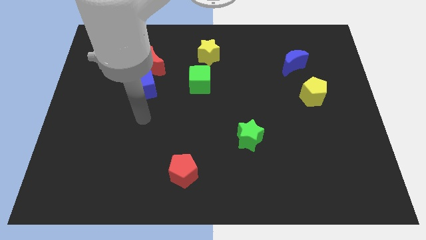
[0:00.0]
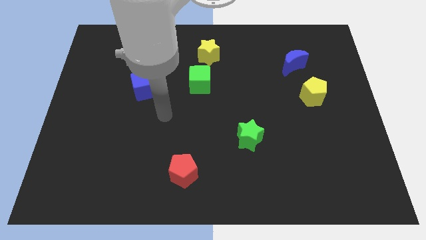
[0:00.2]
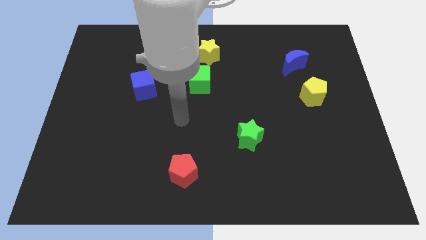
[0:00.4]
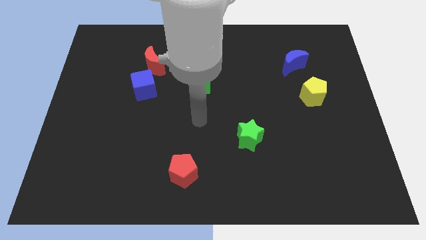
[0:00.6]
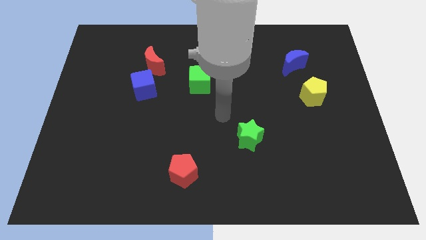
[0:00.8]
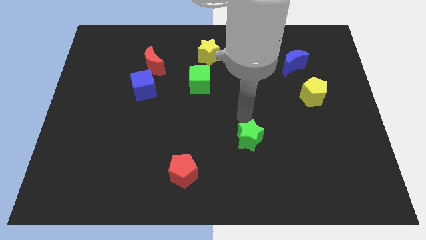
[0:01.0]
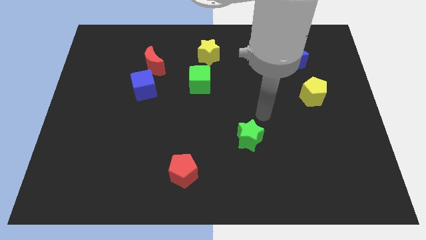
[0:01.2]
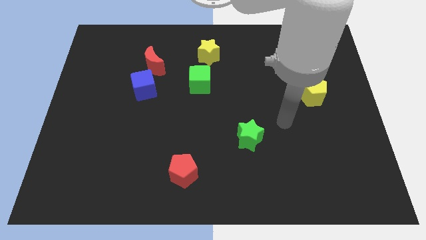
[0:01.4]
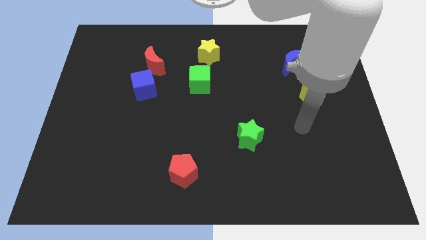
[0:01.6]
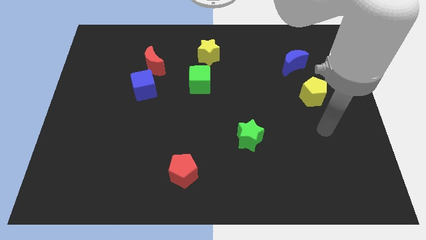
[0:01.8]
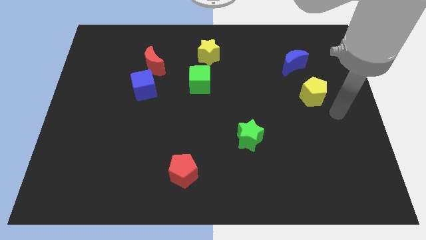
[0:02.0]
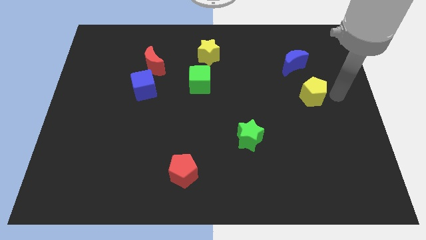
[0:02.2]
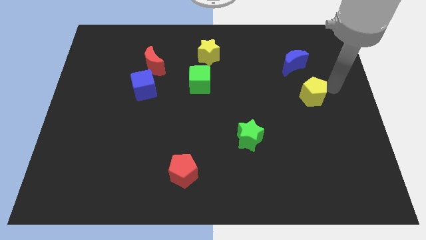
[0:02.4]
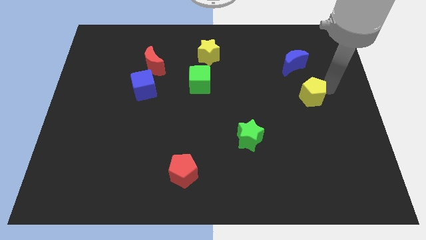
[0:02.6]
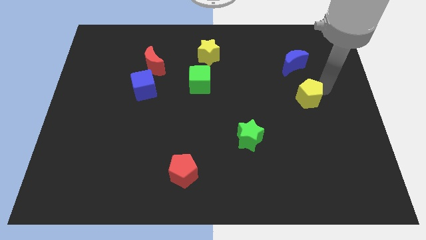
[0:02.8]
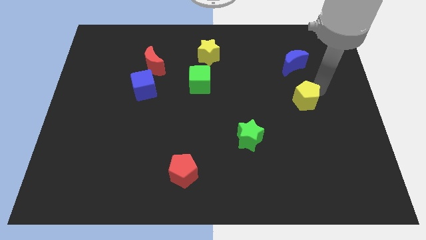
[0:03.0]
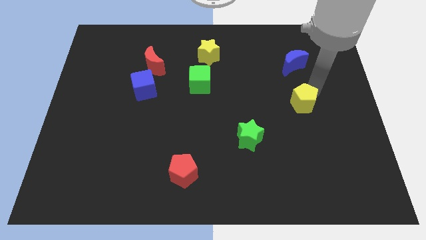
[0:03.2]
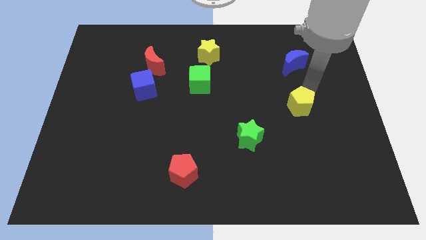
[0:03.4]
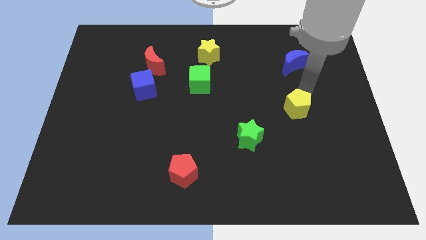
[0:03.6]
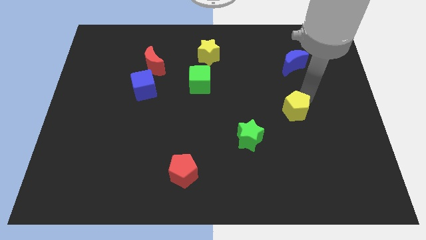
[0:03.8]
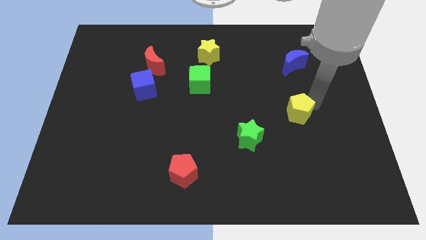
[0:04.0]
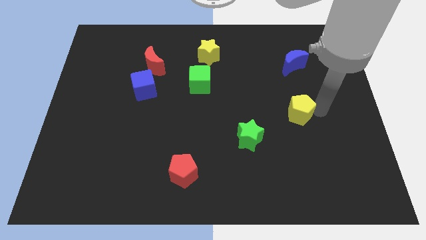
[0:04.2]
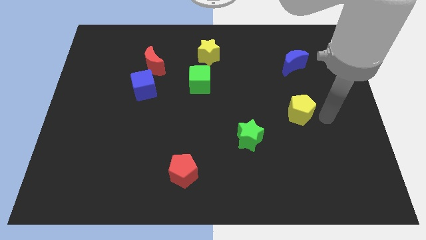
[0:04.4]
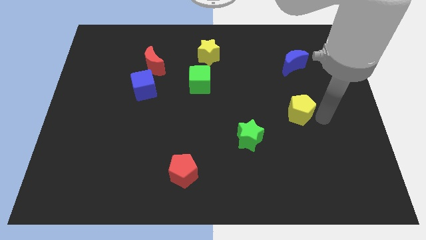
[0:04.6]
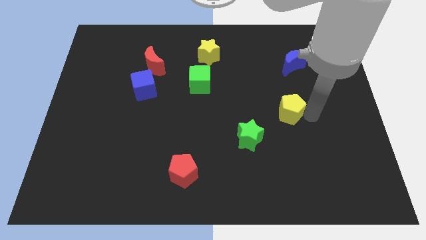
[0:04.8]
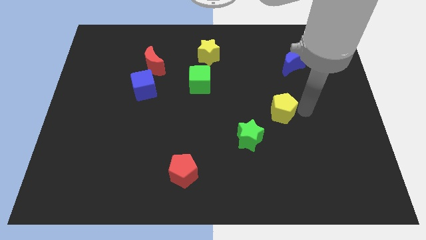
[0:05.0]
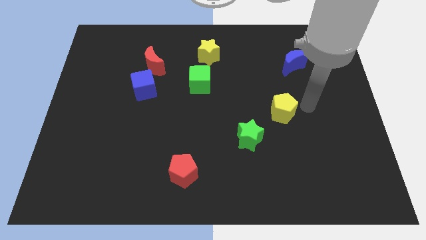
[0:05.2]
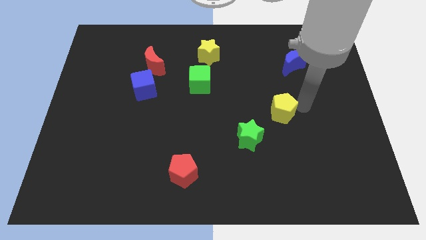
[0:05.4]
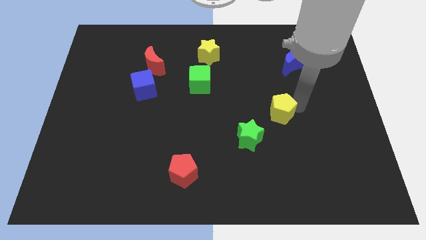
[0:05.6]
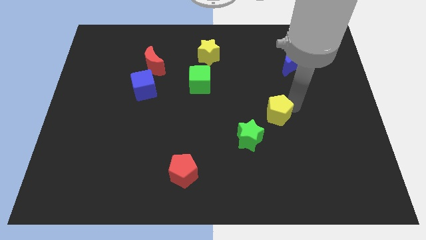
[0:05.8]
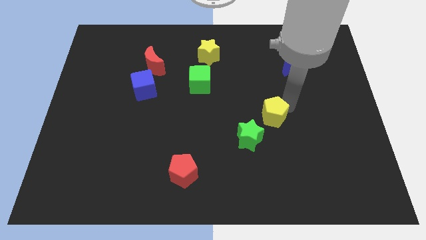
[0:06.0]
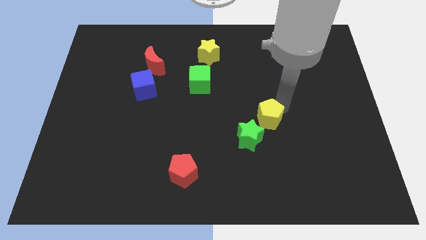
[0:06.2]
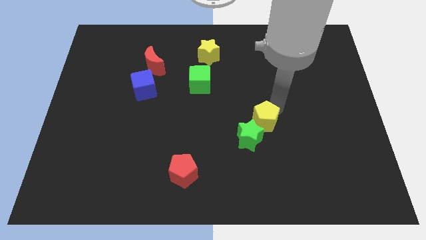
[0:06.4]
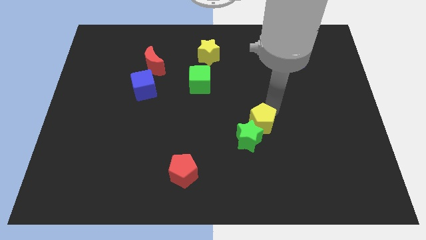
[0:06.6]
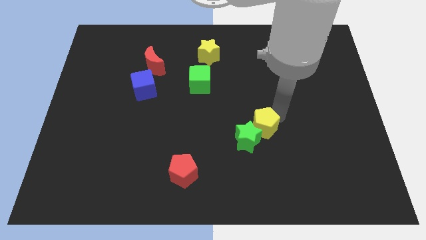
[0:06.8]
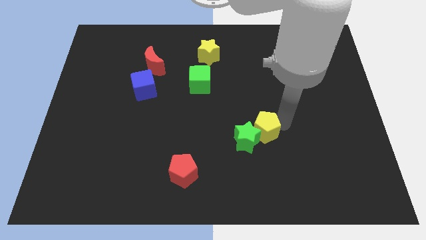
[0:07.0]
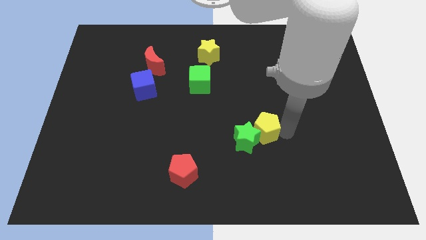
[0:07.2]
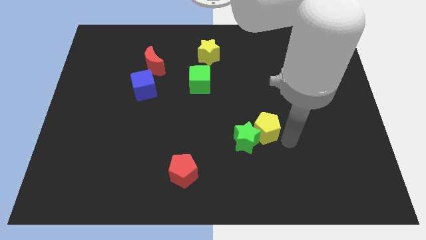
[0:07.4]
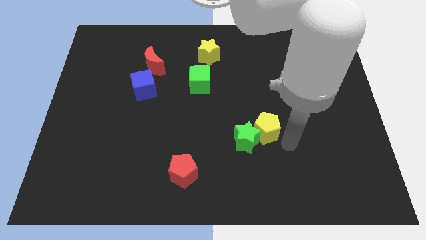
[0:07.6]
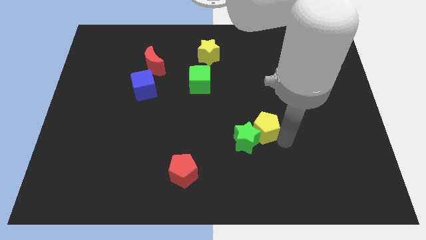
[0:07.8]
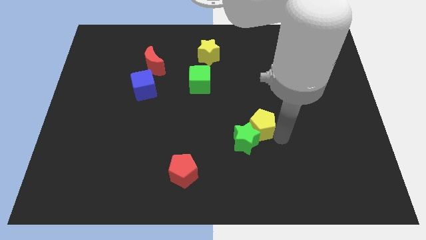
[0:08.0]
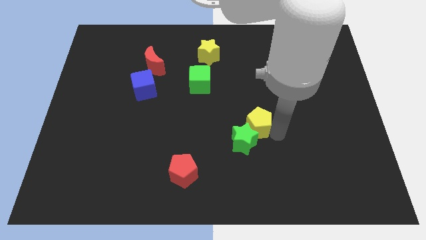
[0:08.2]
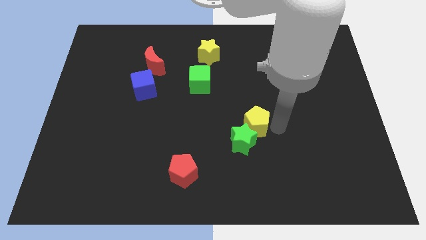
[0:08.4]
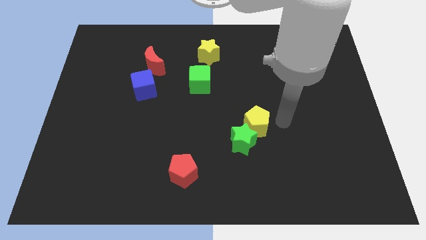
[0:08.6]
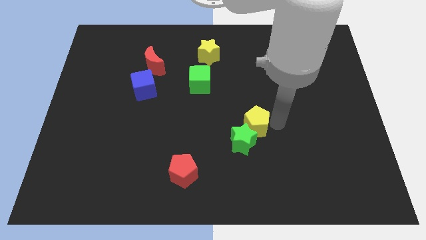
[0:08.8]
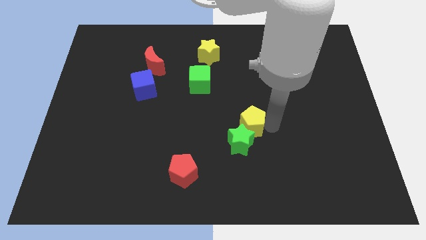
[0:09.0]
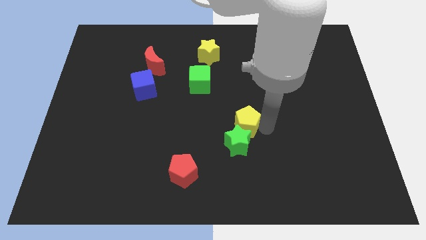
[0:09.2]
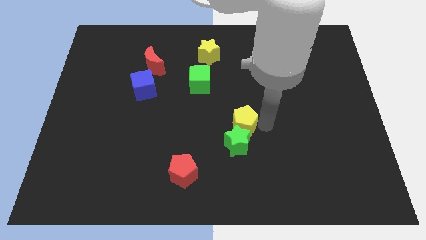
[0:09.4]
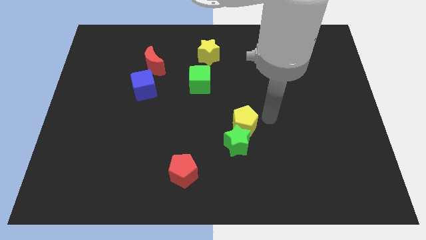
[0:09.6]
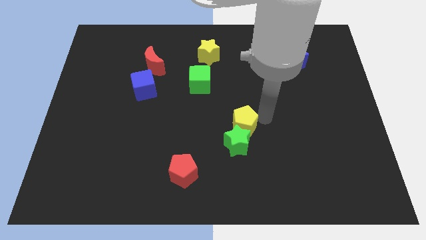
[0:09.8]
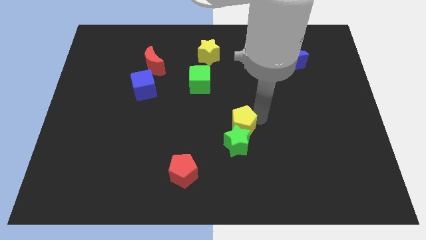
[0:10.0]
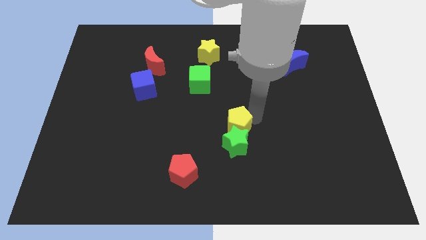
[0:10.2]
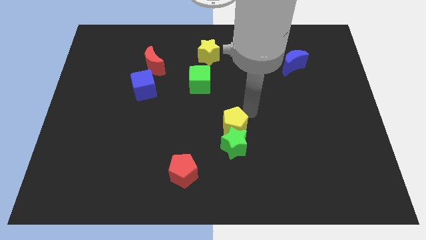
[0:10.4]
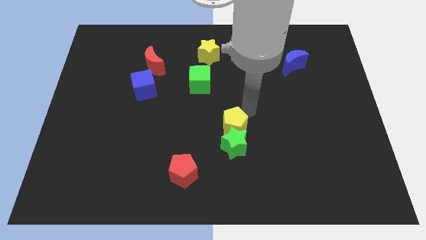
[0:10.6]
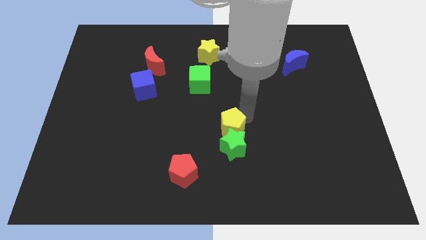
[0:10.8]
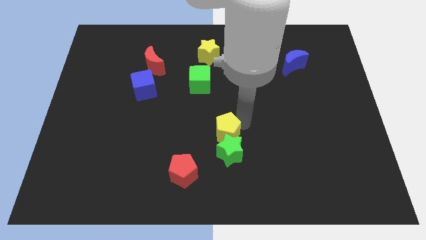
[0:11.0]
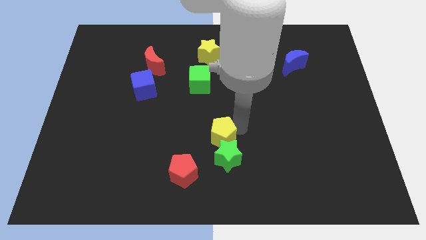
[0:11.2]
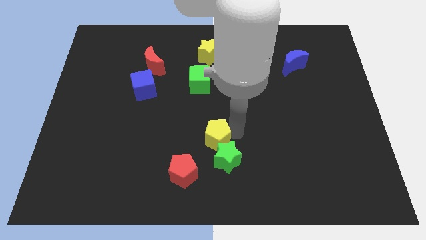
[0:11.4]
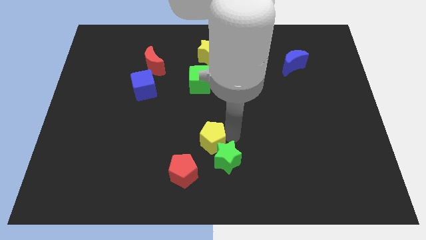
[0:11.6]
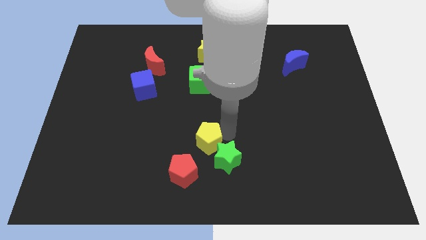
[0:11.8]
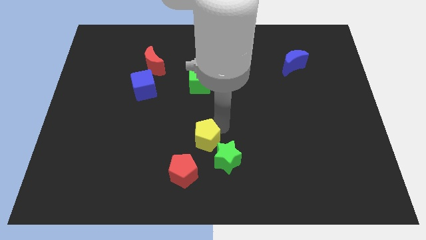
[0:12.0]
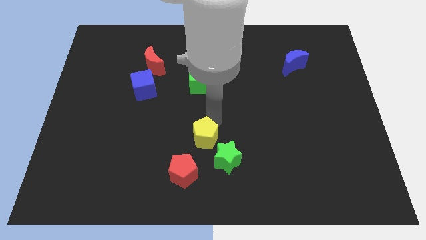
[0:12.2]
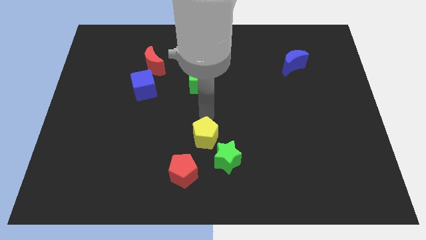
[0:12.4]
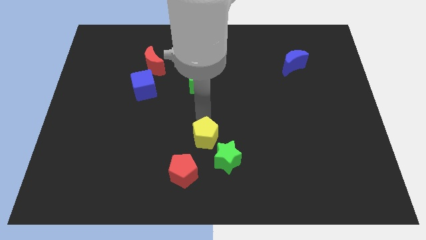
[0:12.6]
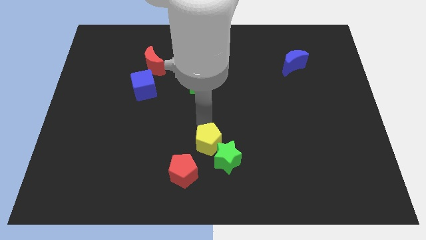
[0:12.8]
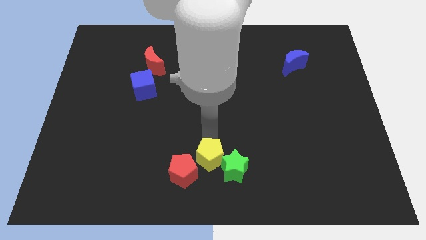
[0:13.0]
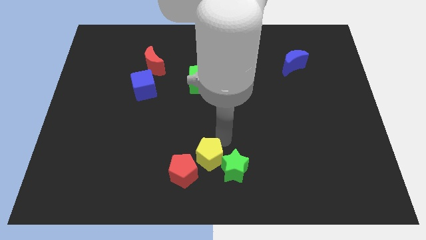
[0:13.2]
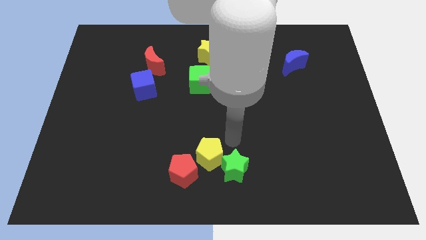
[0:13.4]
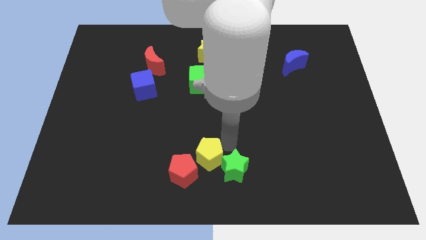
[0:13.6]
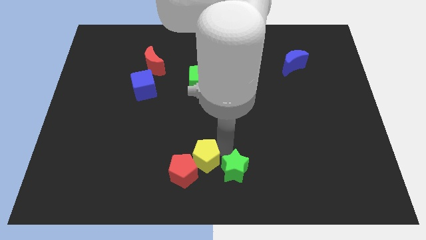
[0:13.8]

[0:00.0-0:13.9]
move the yellow pentagon next to the red pentagon
